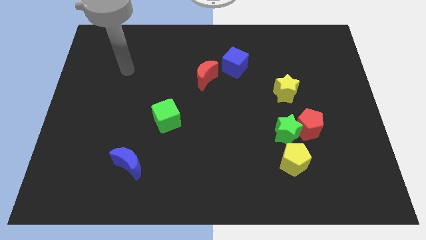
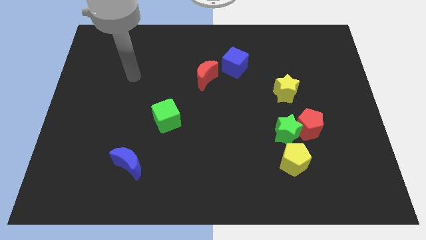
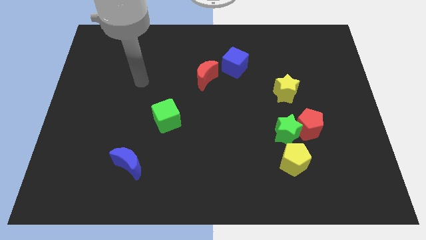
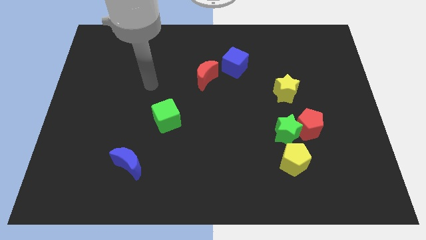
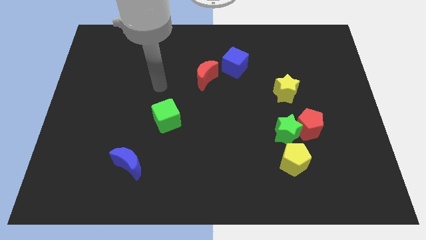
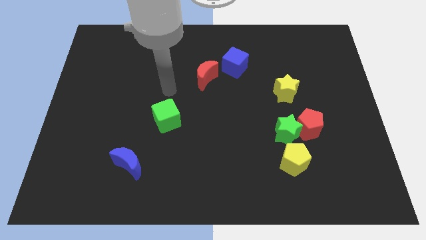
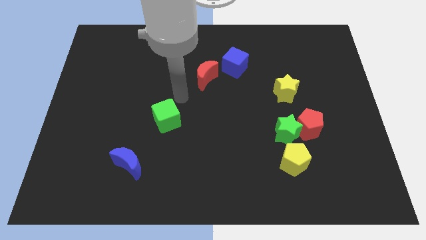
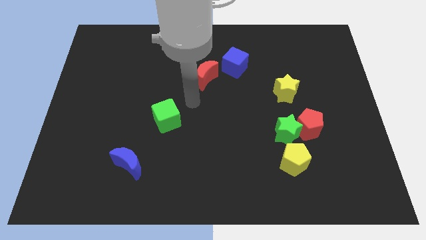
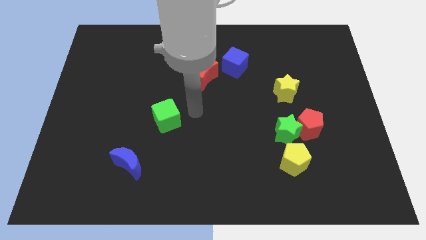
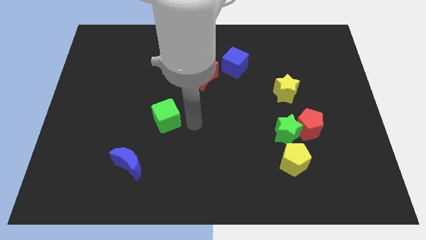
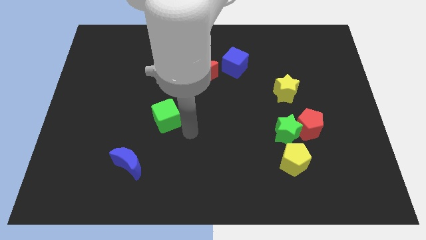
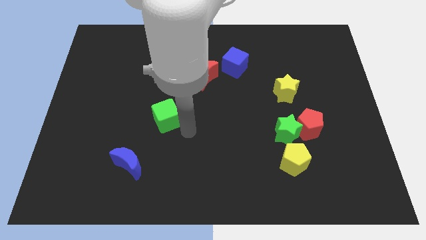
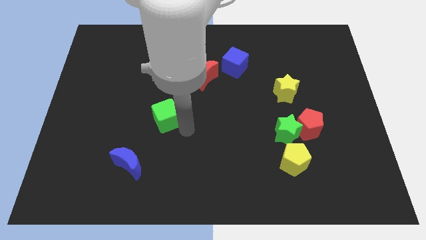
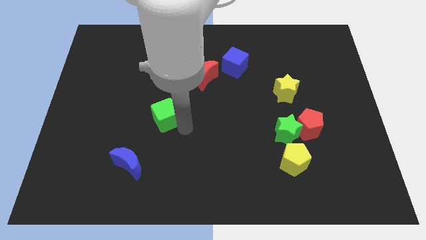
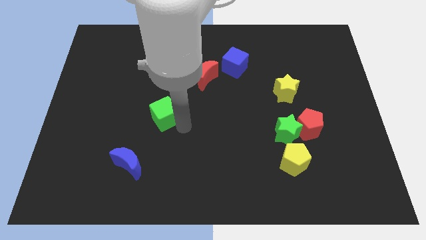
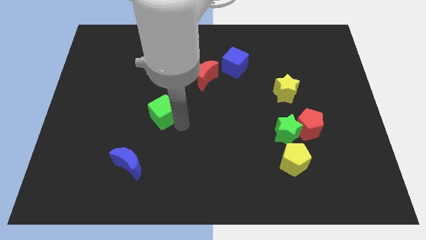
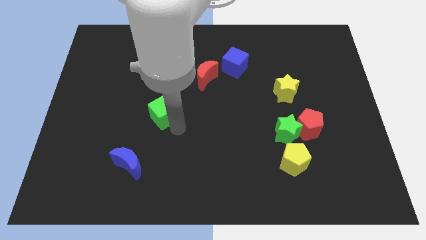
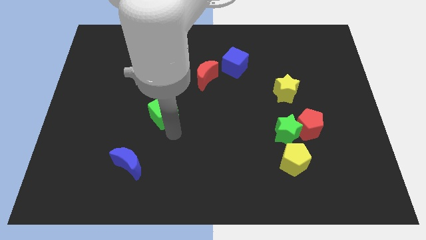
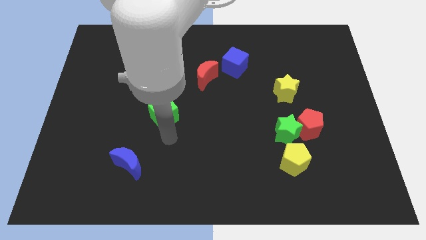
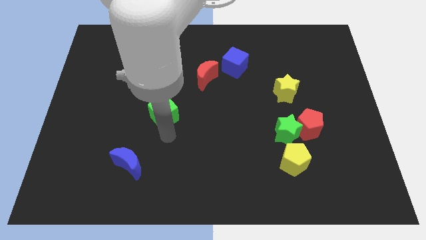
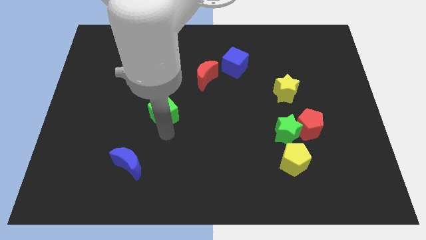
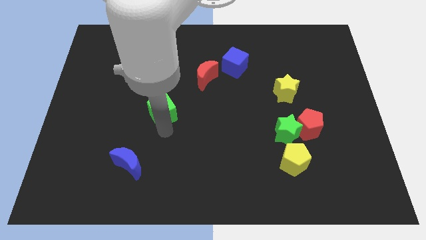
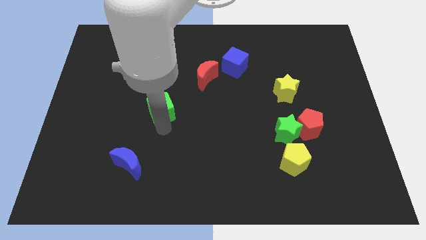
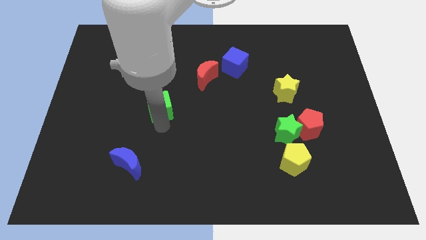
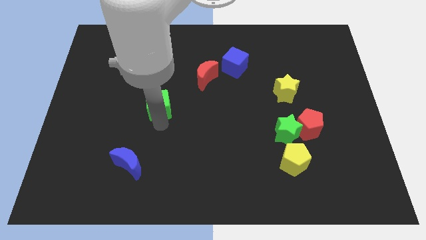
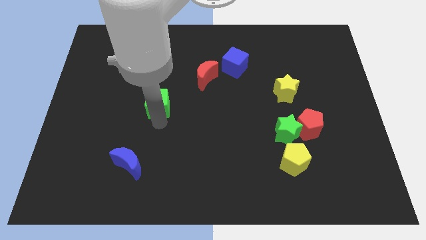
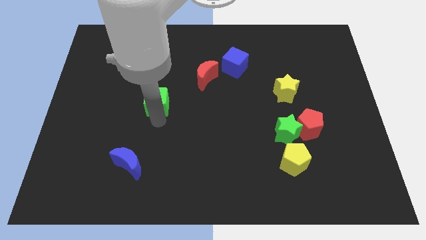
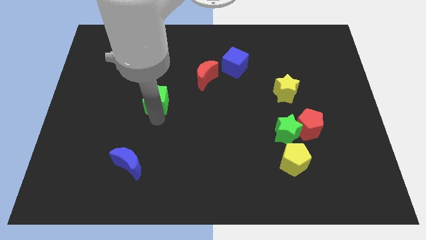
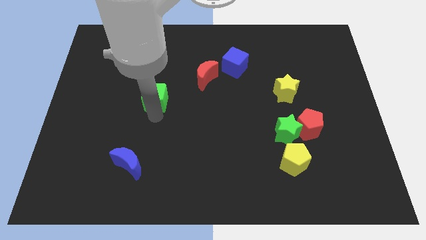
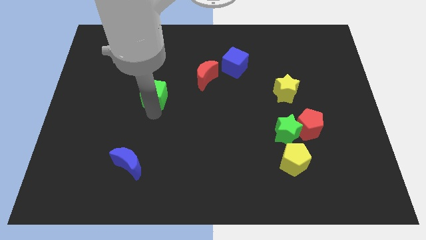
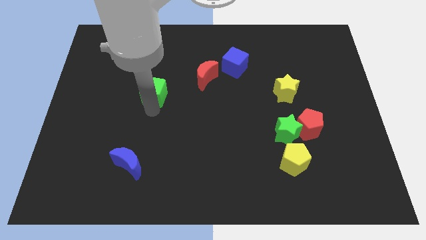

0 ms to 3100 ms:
slightly slide the green cube up

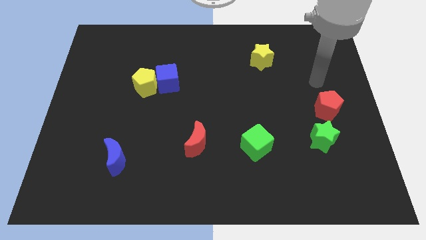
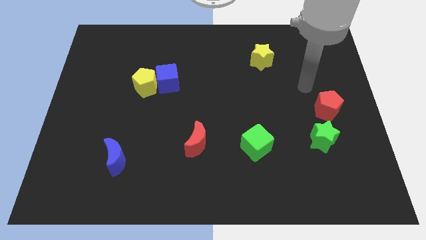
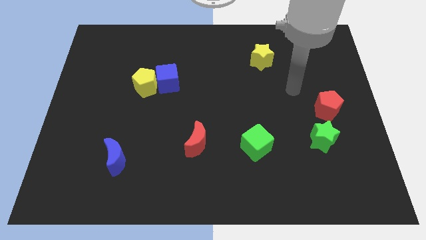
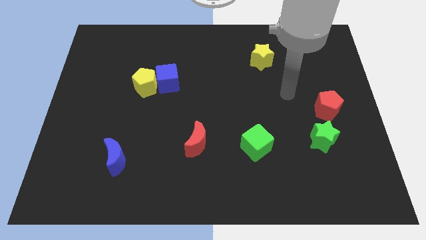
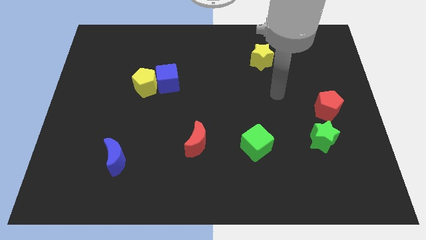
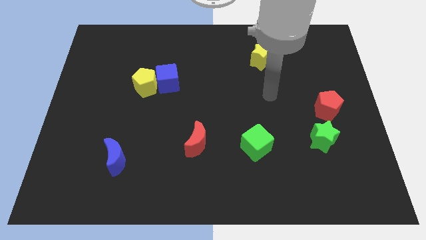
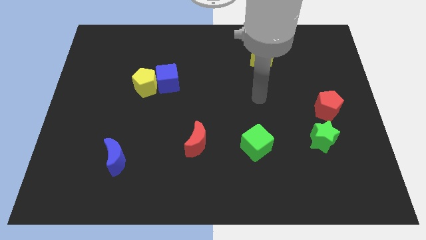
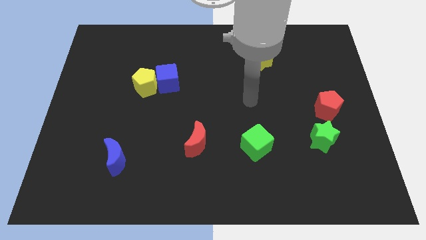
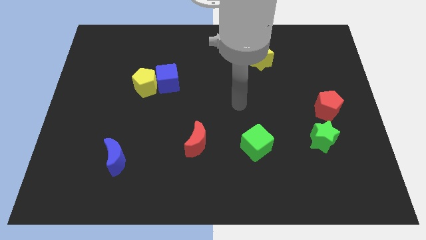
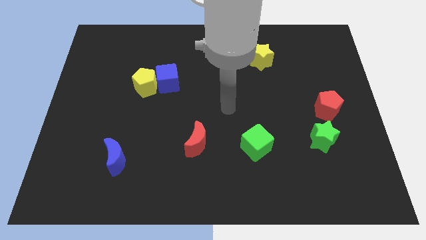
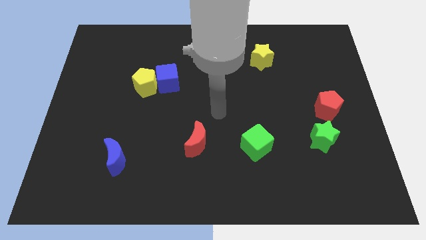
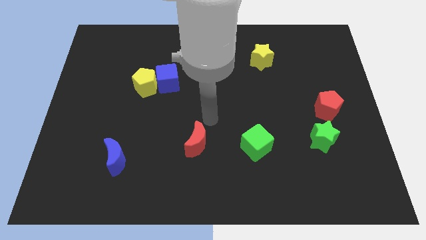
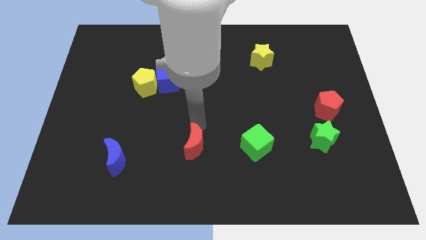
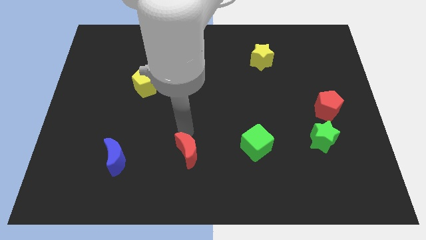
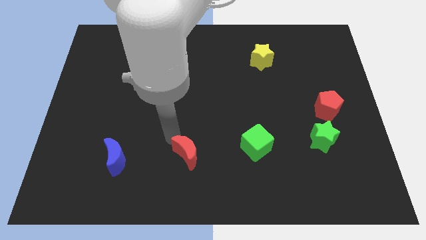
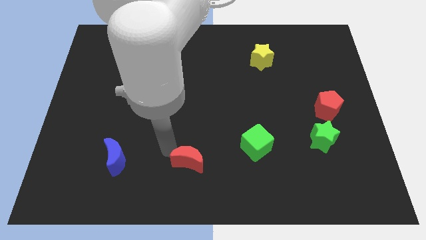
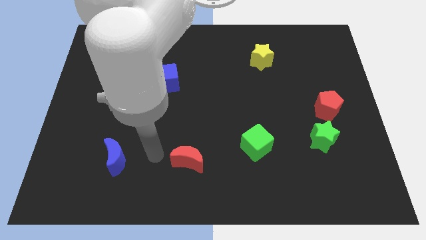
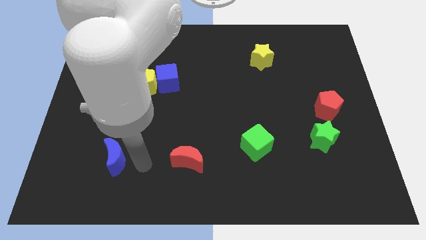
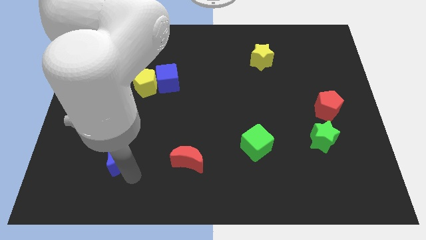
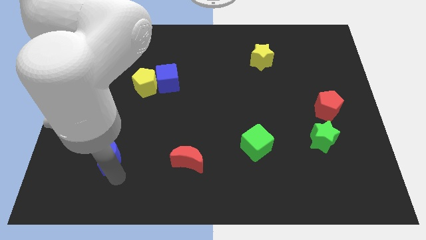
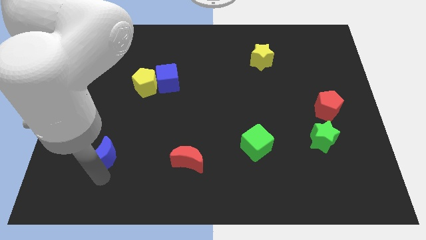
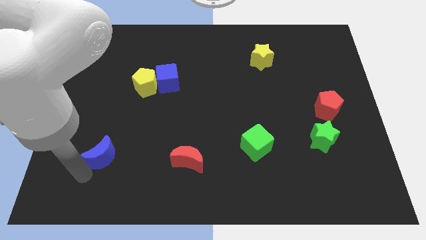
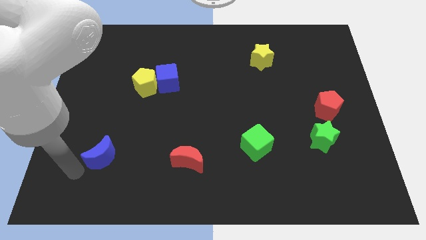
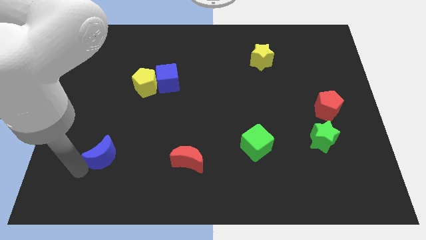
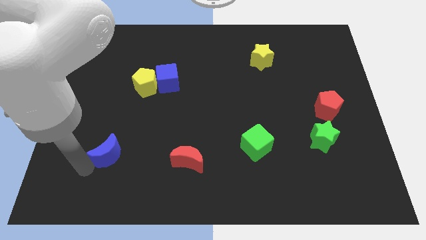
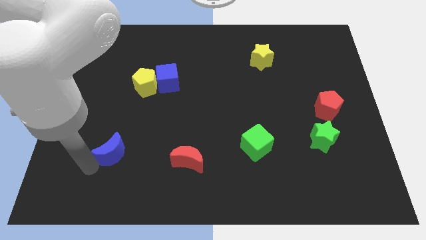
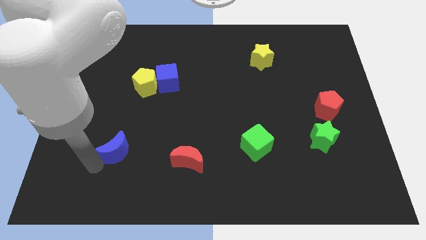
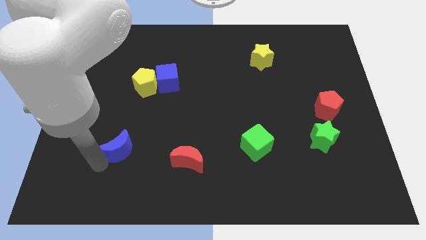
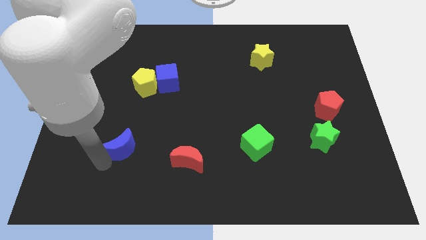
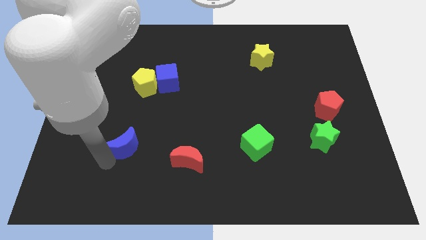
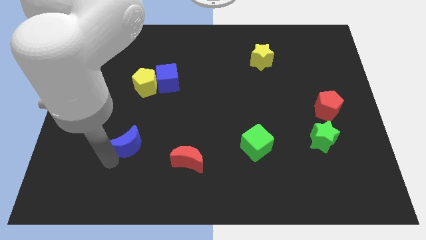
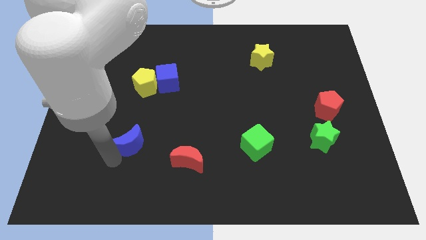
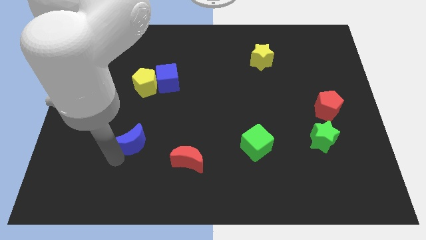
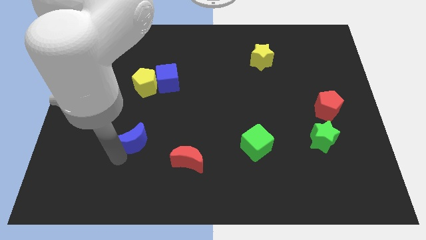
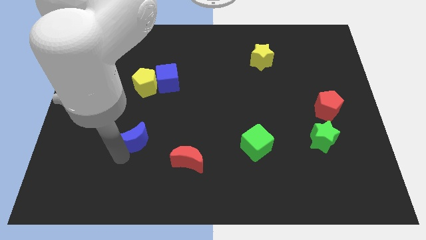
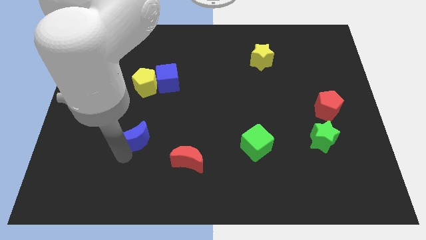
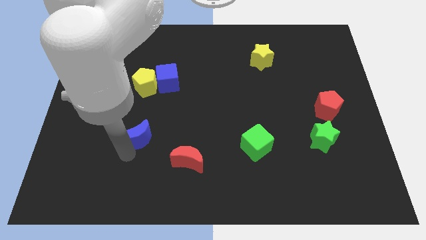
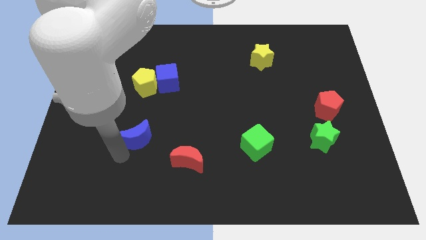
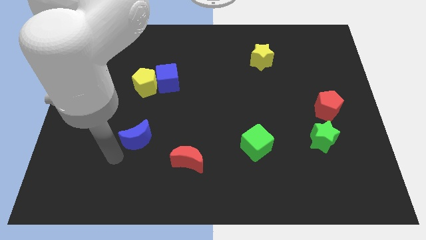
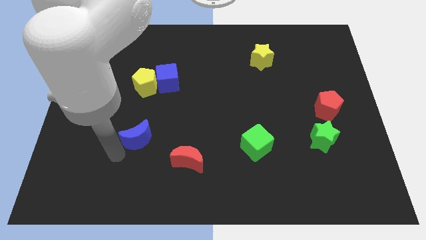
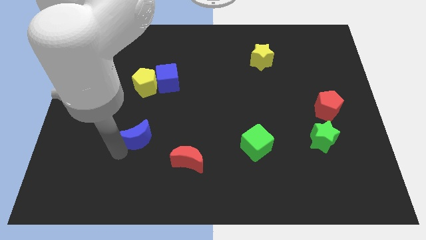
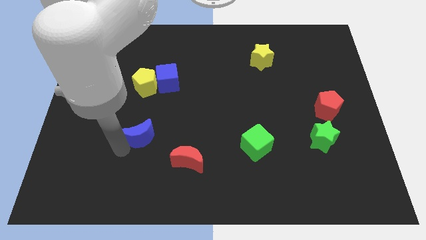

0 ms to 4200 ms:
slightly slide the blue moon up and then to the right

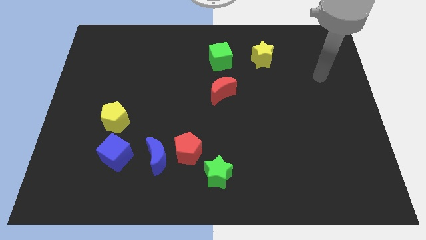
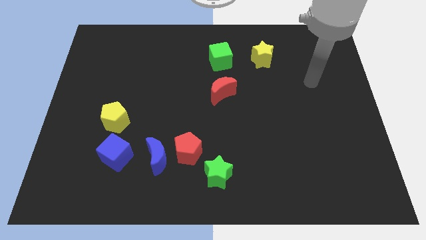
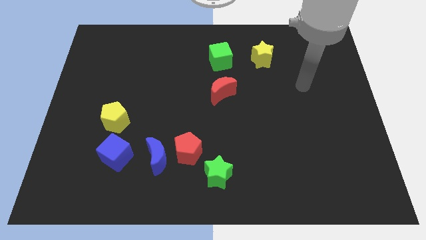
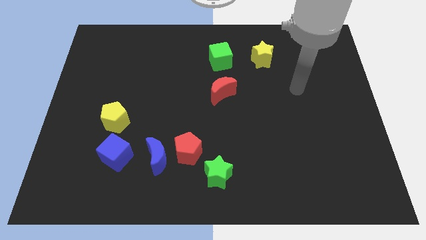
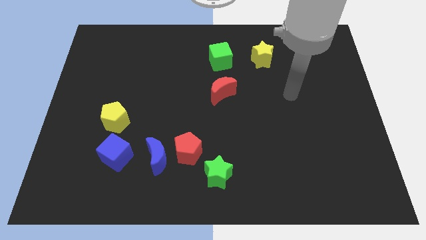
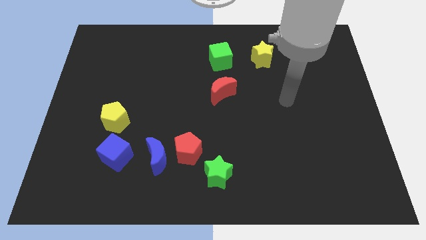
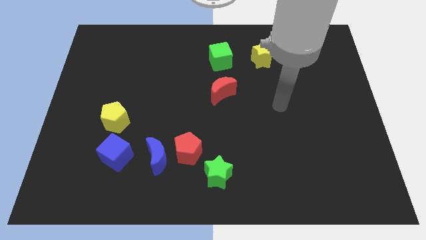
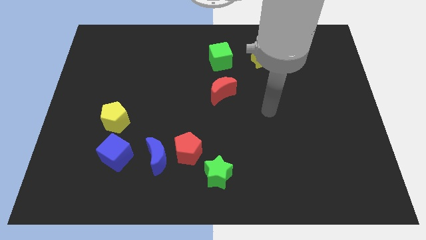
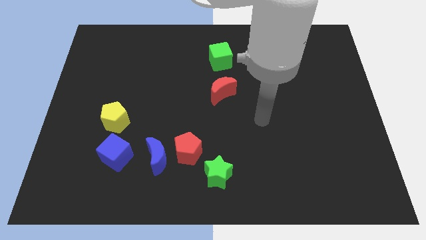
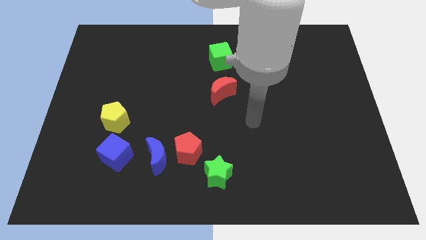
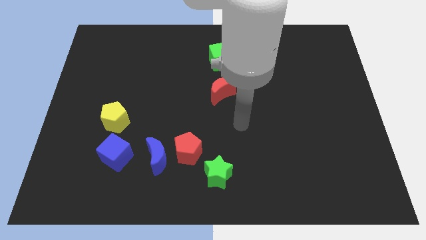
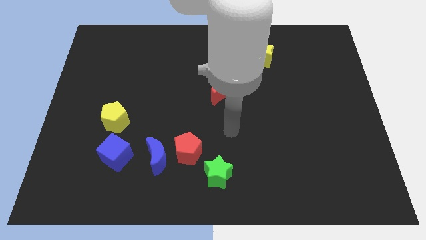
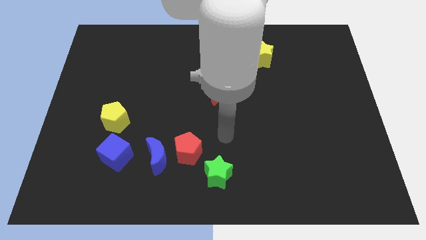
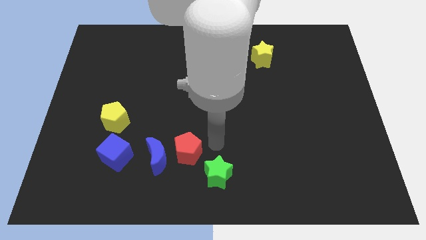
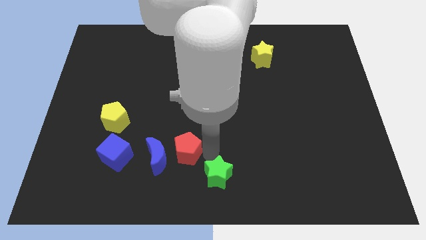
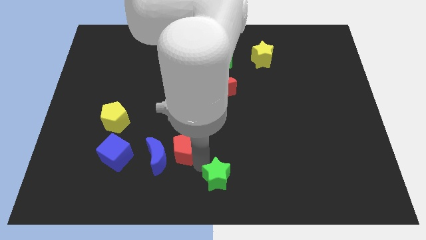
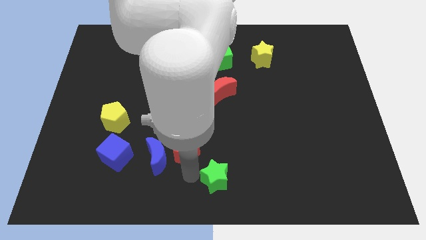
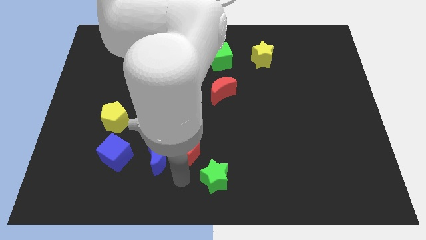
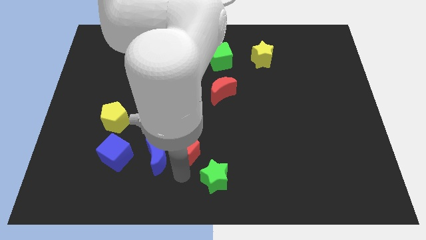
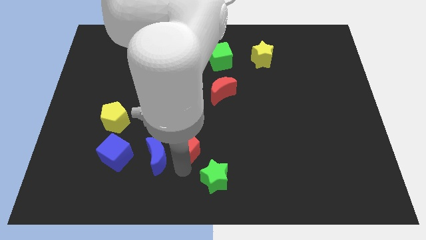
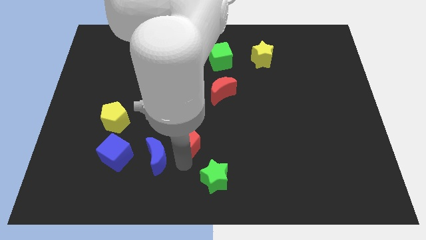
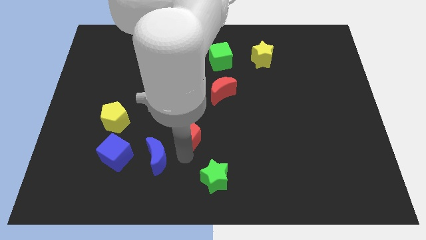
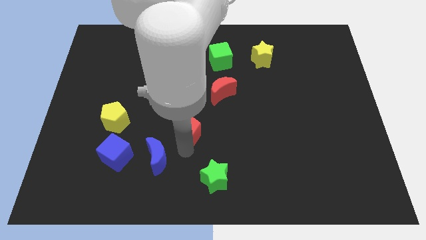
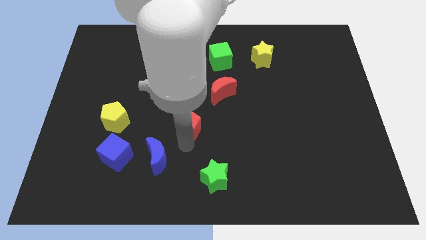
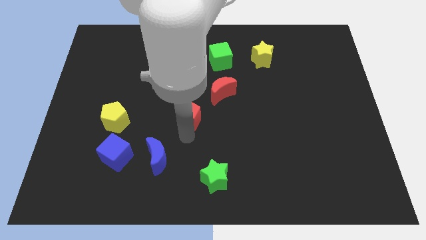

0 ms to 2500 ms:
slightly move the red pentagon upwards
